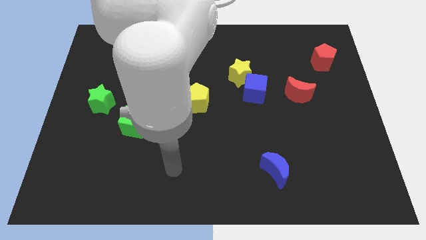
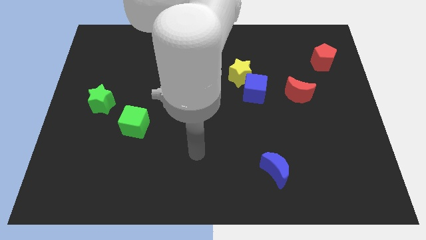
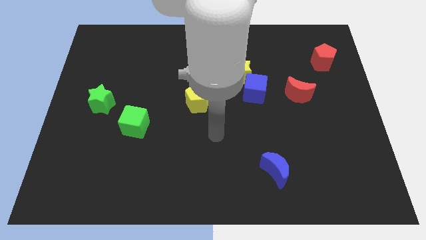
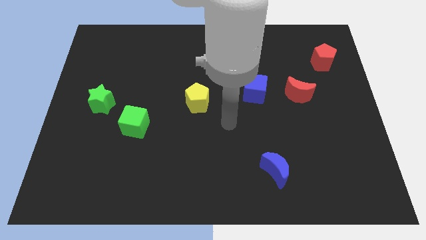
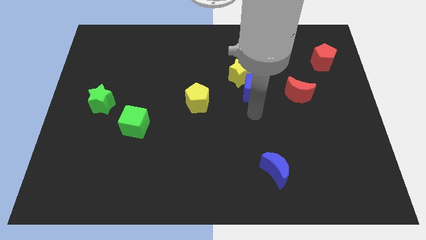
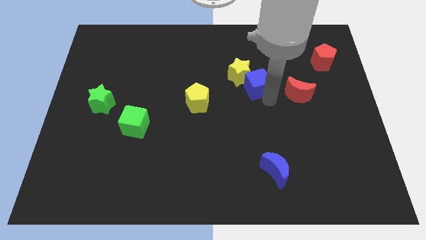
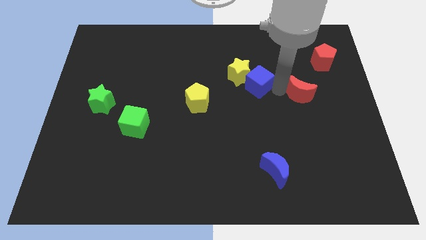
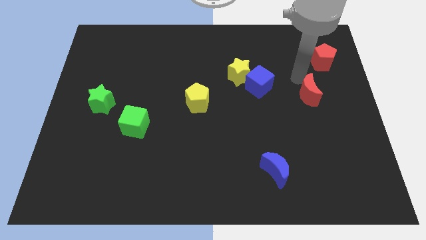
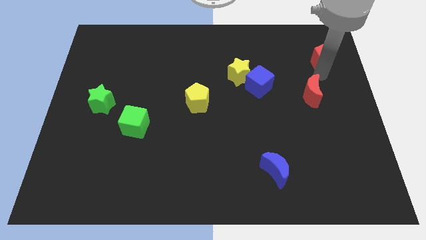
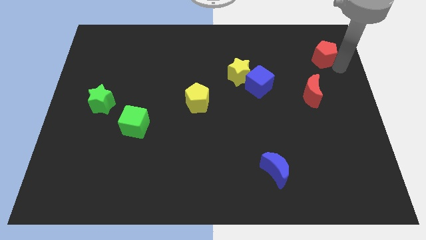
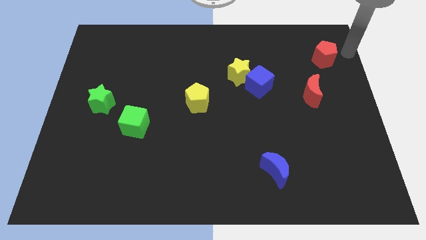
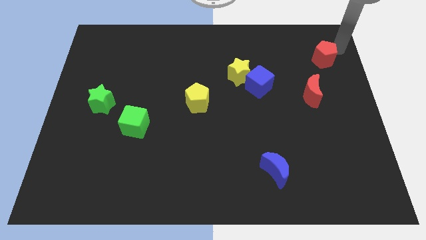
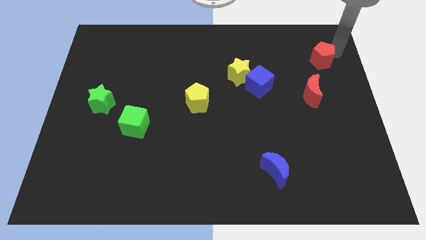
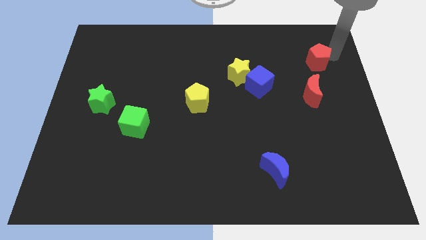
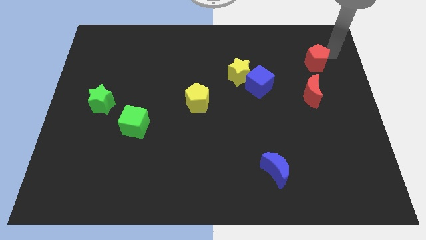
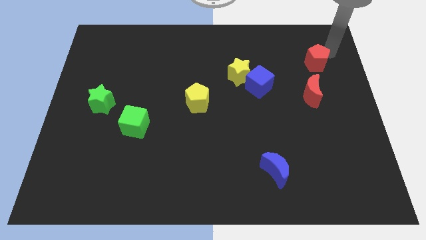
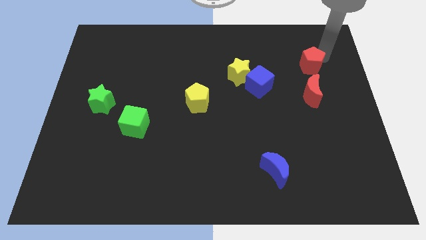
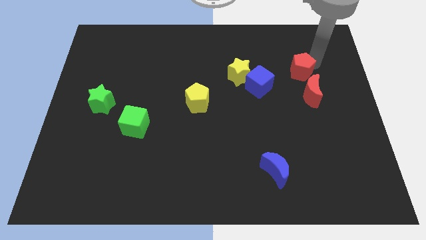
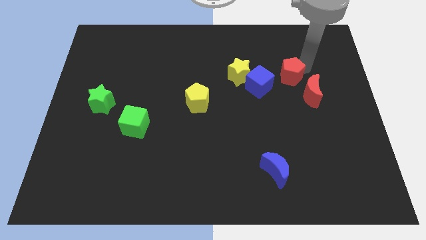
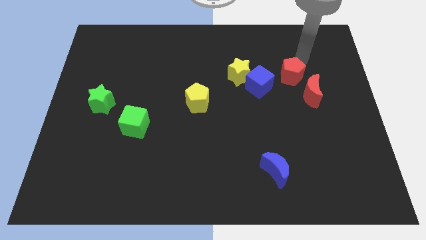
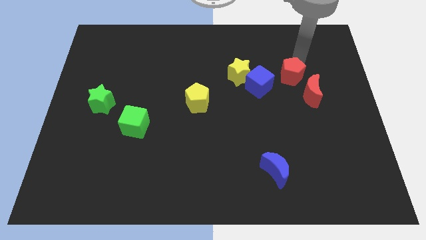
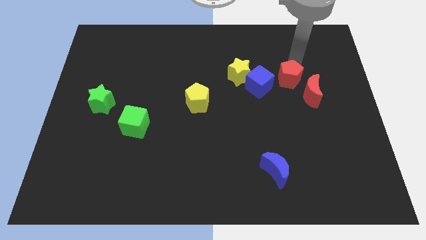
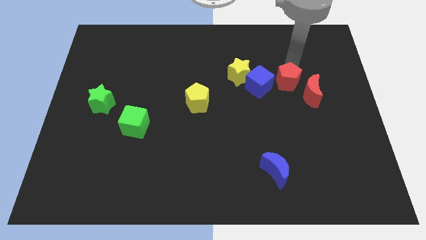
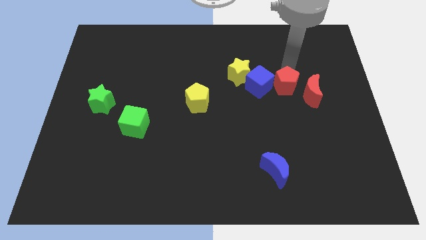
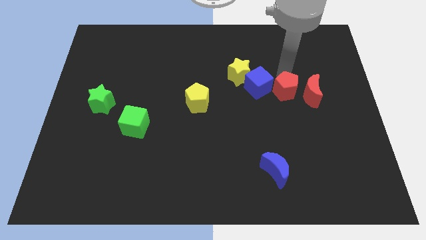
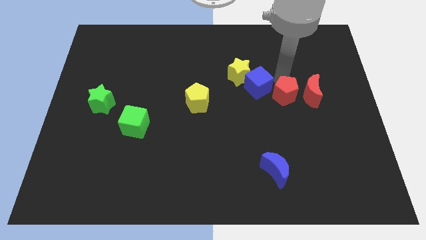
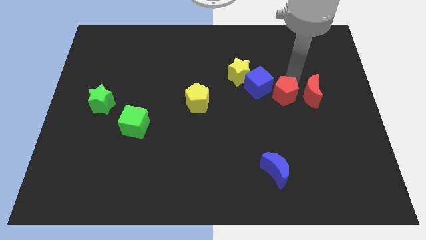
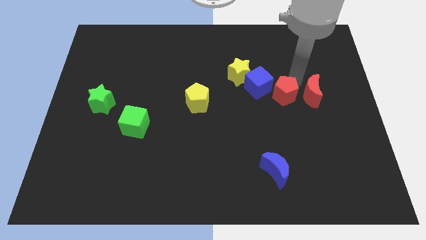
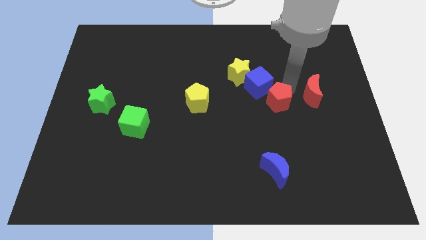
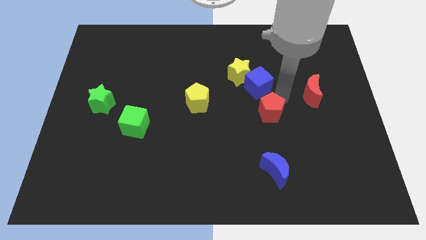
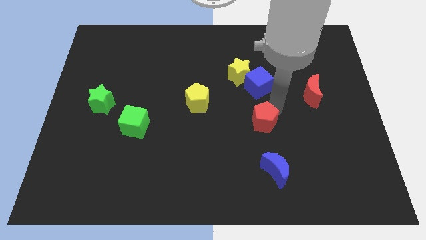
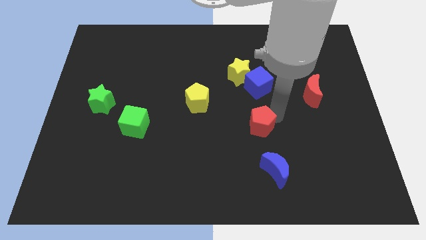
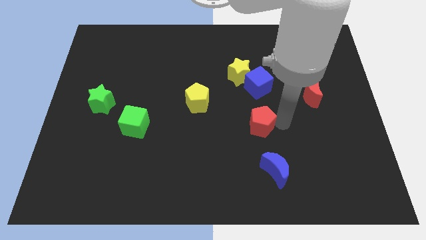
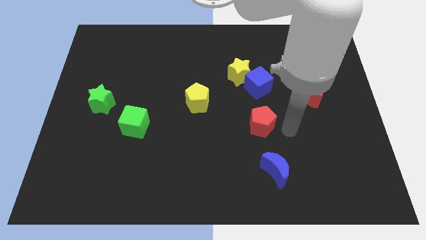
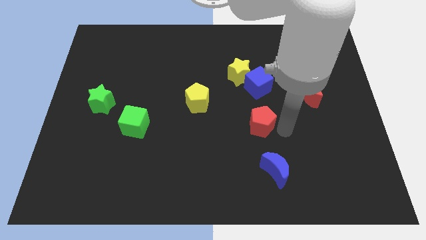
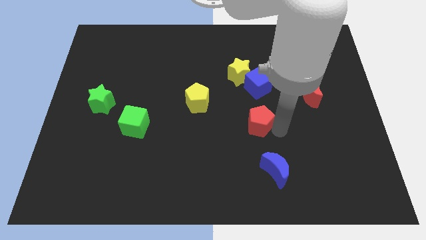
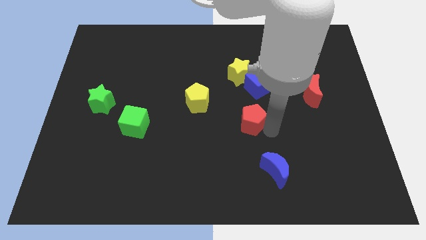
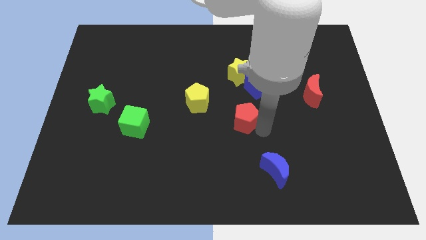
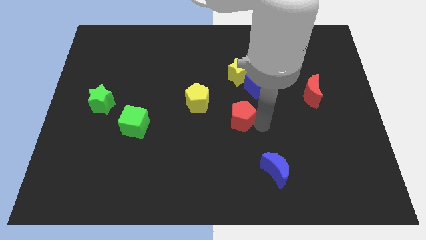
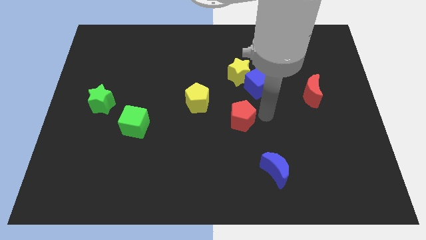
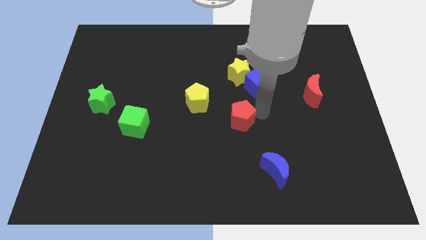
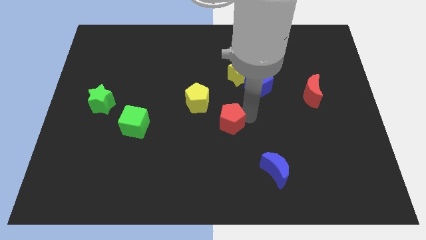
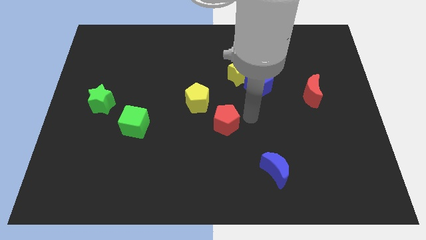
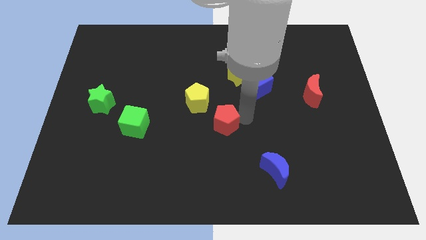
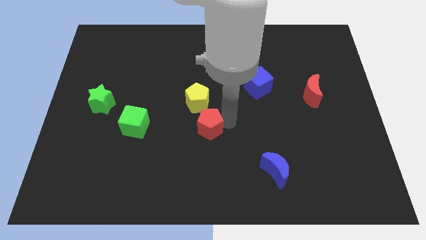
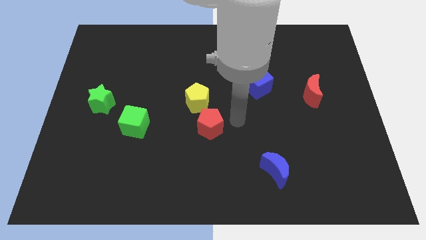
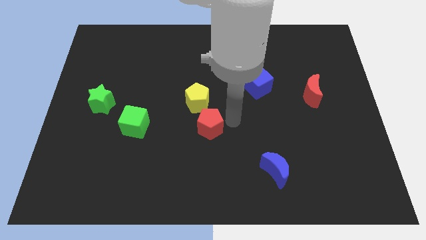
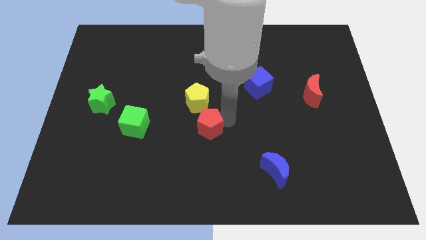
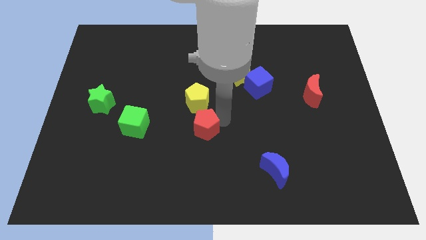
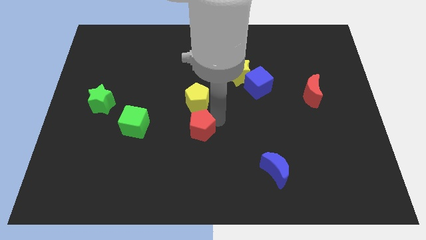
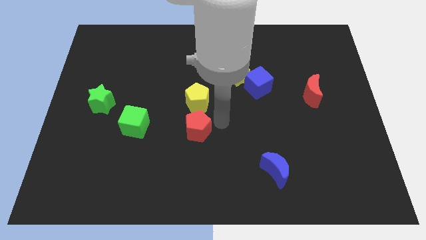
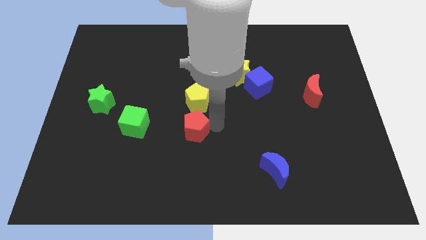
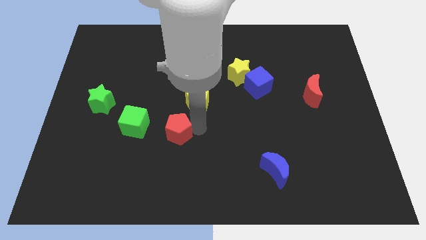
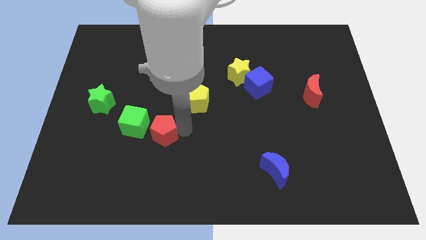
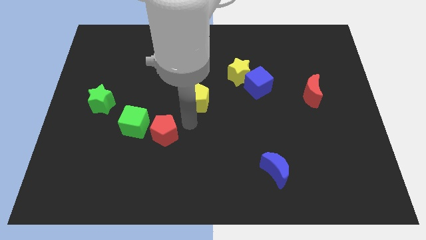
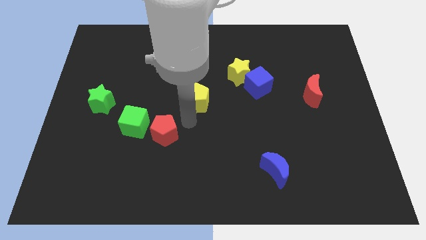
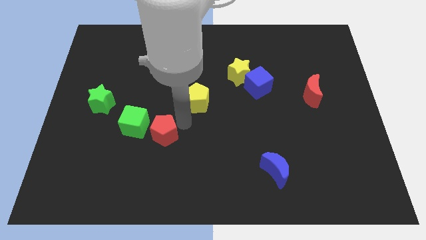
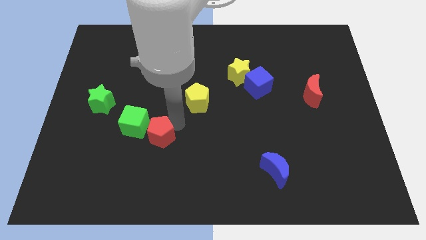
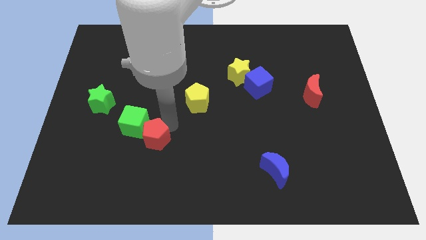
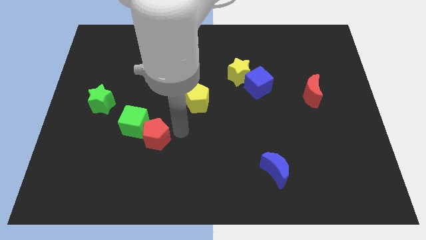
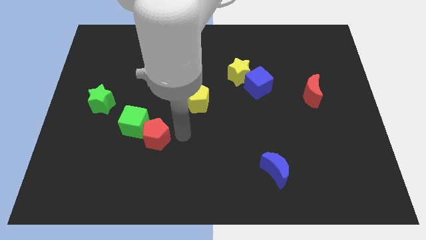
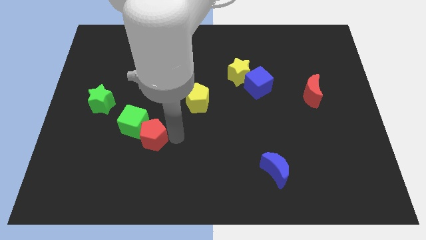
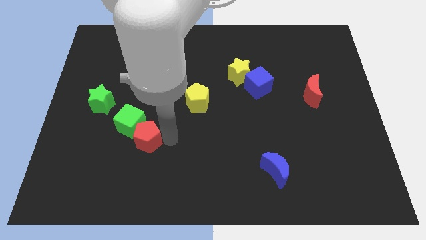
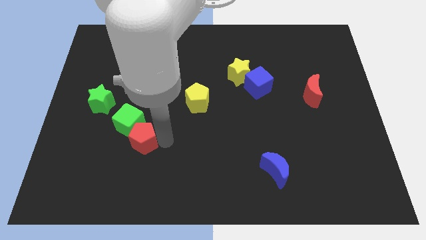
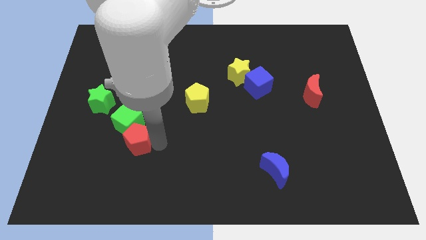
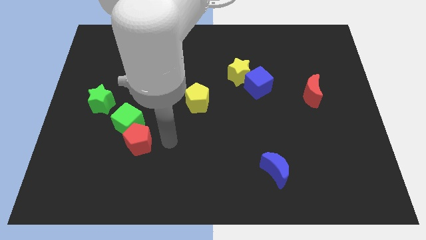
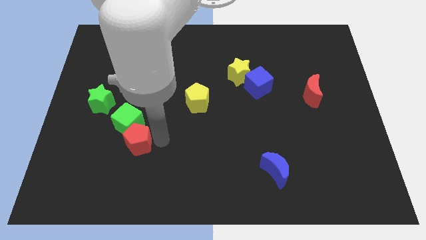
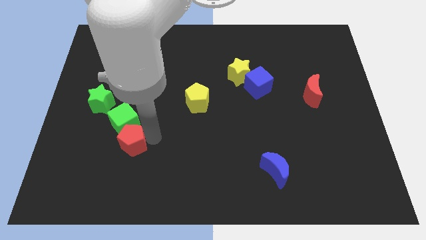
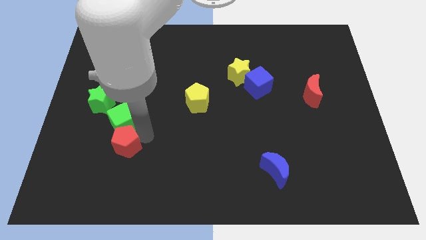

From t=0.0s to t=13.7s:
slide the red pentagon to the bottom left side of the green cube
